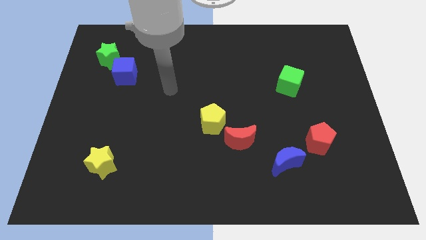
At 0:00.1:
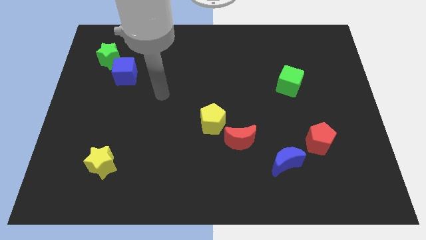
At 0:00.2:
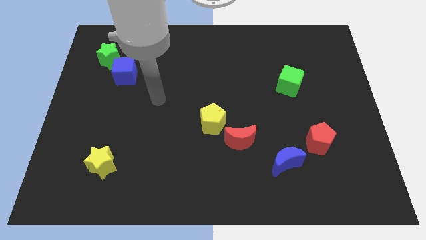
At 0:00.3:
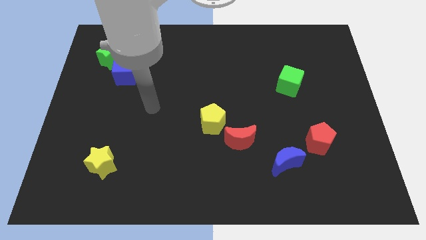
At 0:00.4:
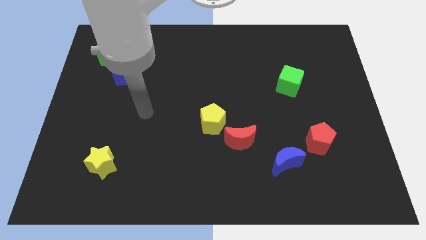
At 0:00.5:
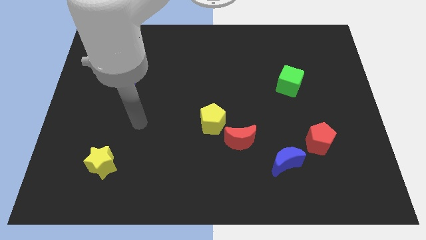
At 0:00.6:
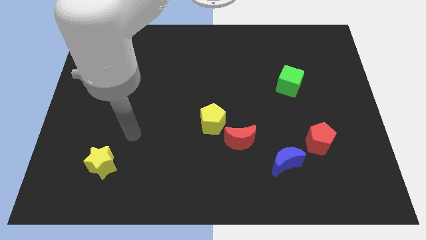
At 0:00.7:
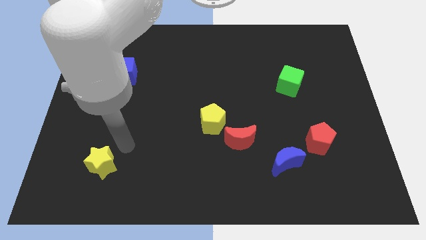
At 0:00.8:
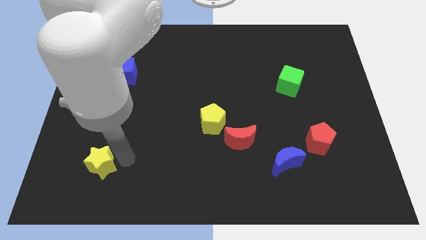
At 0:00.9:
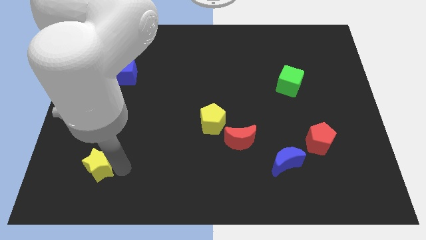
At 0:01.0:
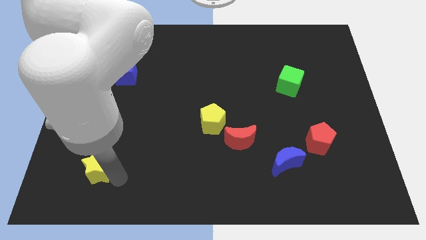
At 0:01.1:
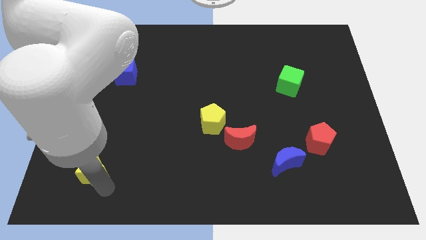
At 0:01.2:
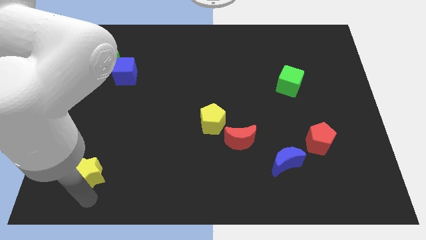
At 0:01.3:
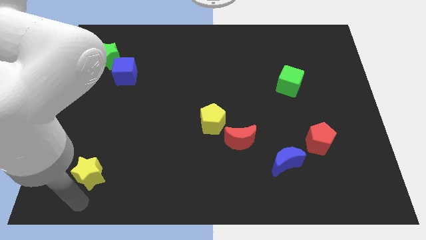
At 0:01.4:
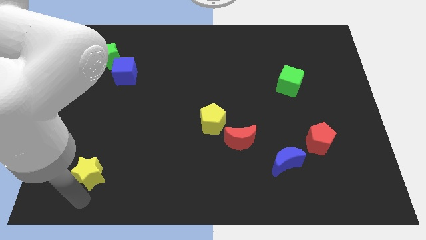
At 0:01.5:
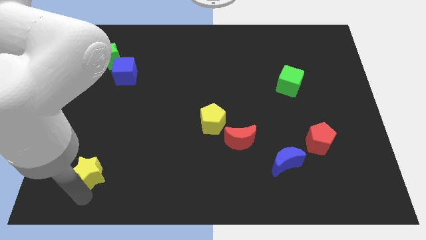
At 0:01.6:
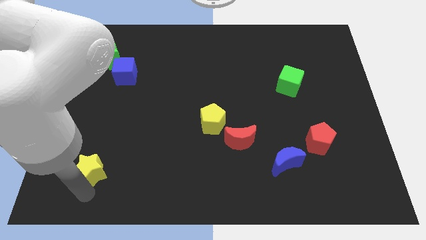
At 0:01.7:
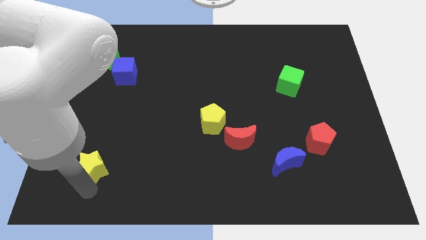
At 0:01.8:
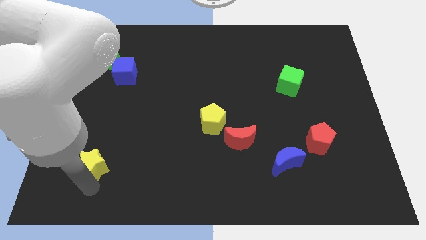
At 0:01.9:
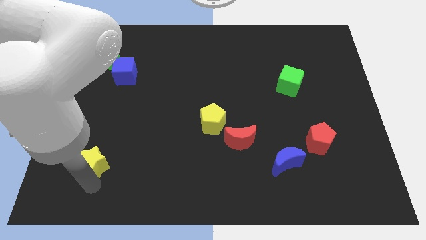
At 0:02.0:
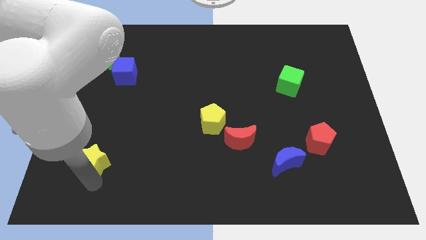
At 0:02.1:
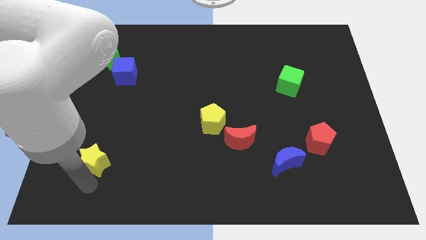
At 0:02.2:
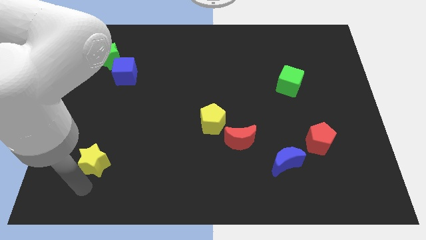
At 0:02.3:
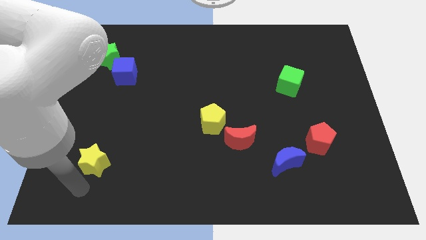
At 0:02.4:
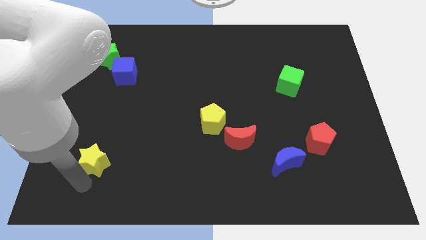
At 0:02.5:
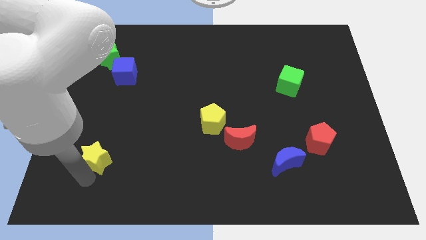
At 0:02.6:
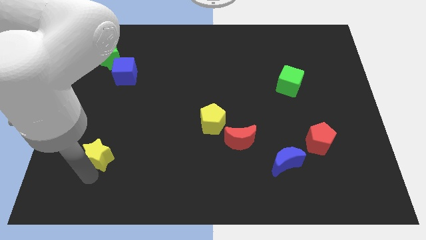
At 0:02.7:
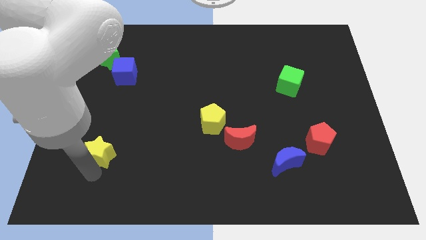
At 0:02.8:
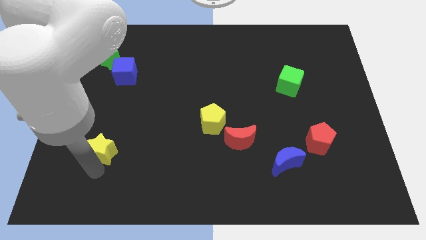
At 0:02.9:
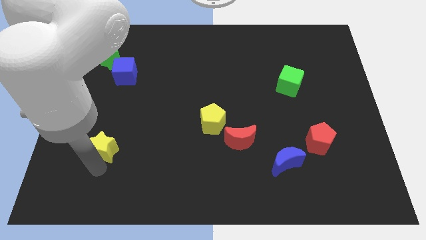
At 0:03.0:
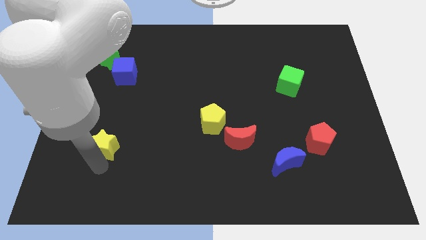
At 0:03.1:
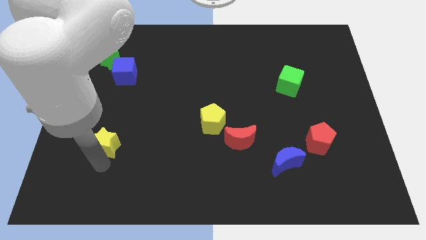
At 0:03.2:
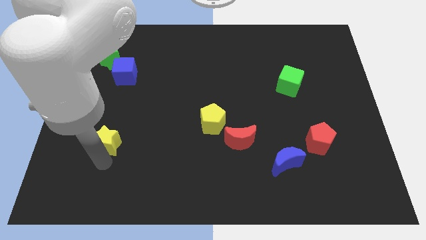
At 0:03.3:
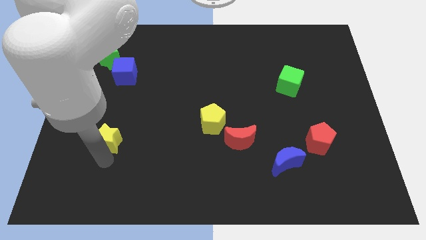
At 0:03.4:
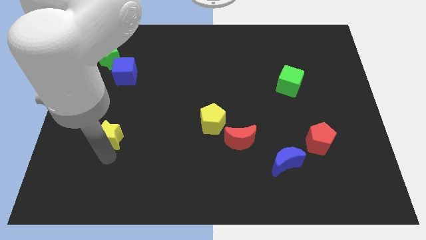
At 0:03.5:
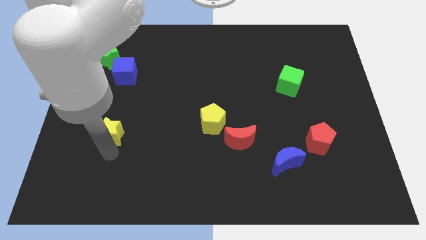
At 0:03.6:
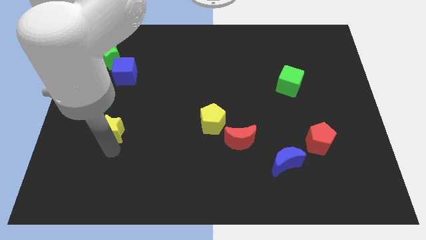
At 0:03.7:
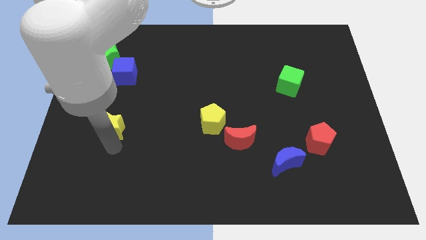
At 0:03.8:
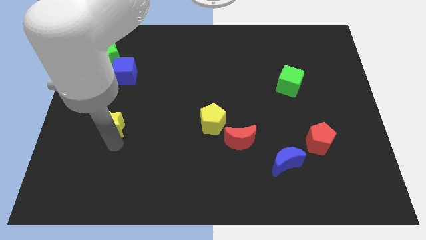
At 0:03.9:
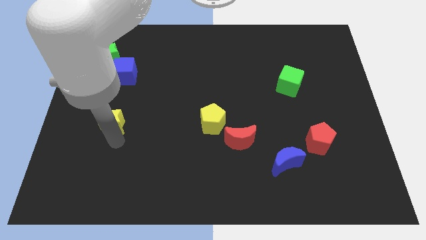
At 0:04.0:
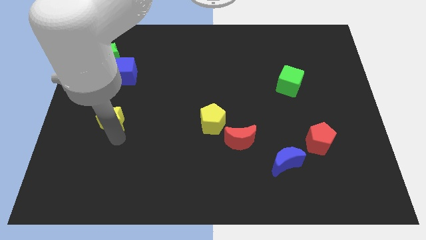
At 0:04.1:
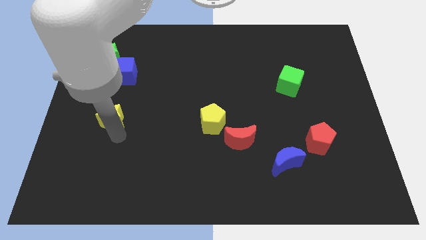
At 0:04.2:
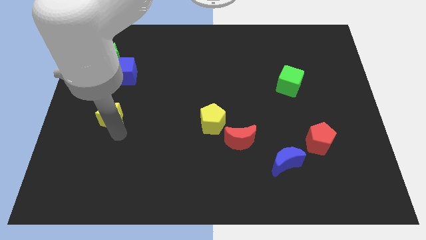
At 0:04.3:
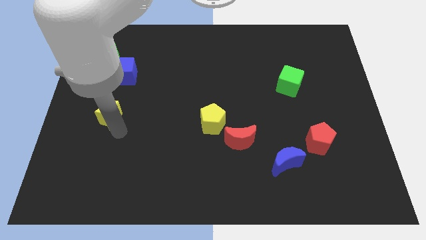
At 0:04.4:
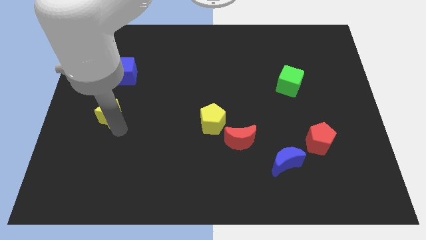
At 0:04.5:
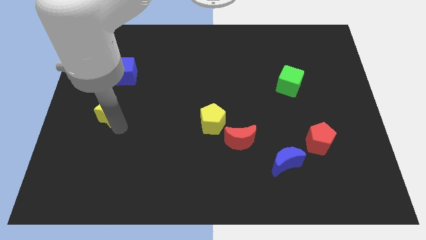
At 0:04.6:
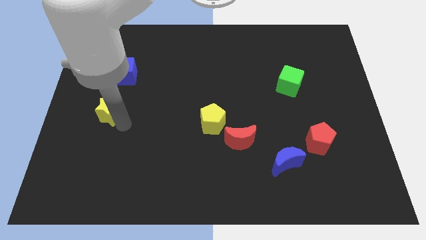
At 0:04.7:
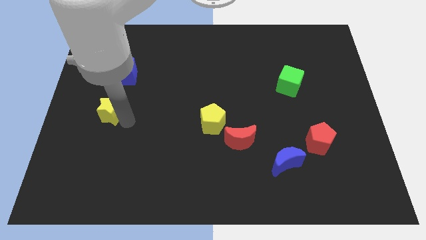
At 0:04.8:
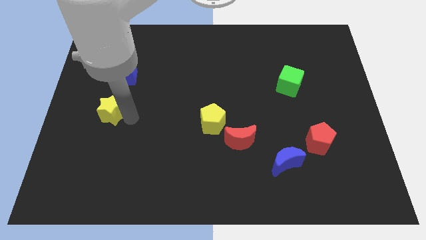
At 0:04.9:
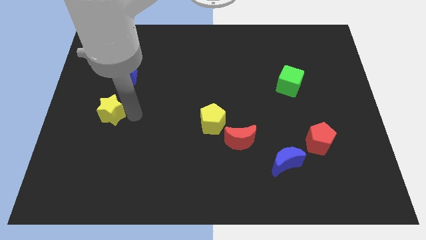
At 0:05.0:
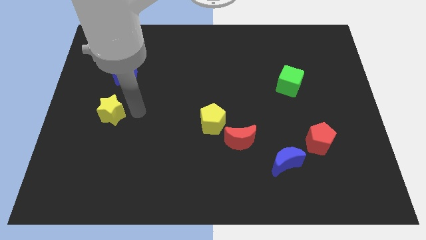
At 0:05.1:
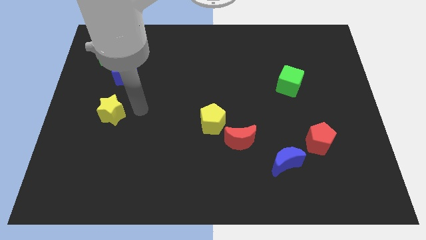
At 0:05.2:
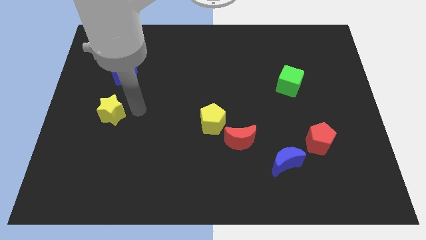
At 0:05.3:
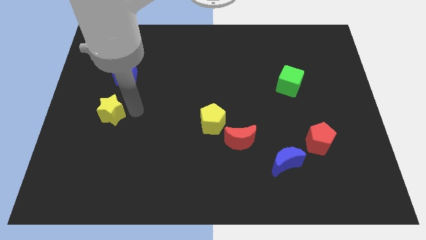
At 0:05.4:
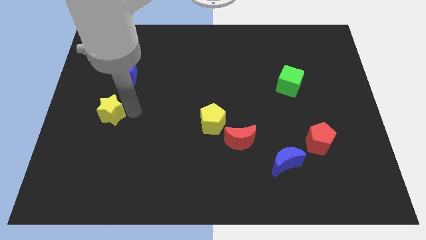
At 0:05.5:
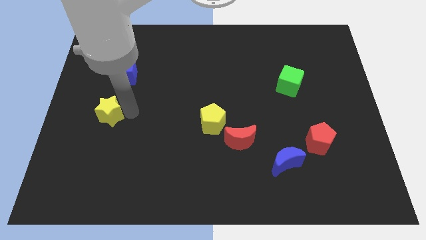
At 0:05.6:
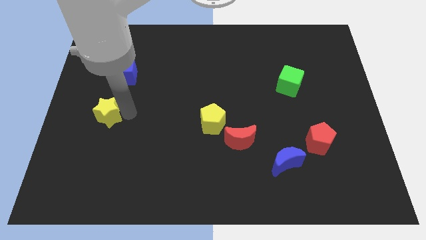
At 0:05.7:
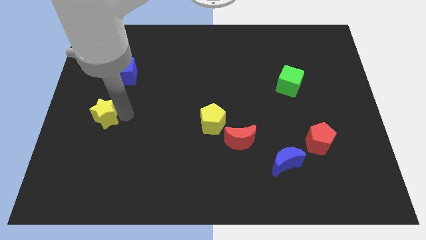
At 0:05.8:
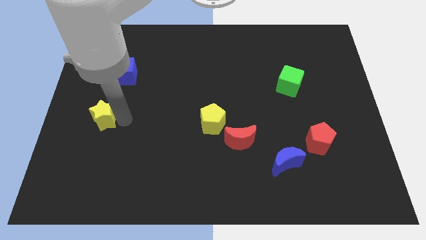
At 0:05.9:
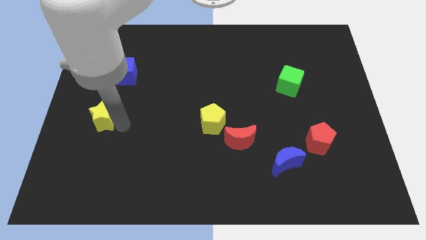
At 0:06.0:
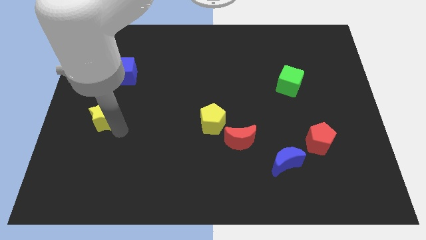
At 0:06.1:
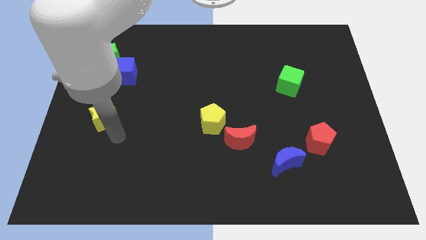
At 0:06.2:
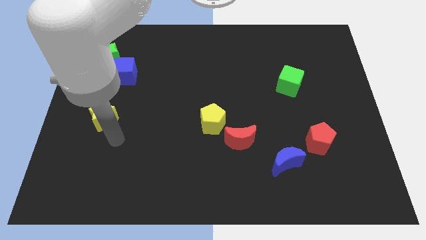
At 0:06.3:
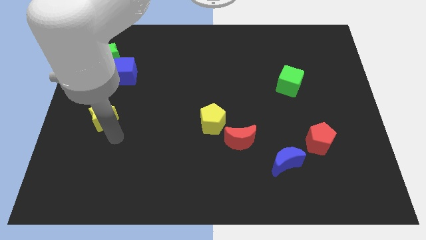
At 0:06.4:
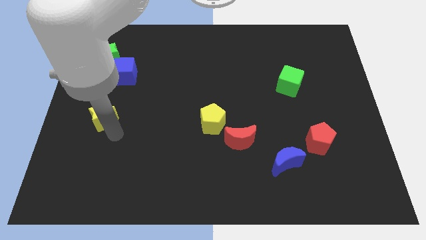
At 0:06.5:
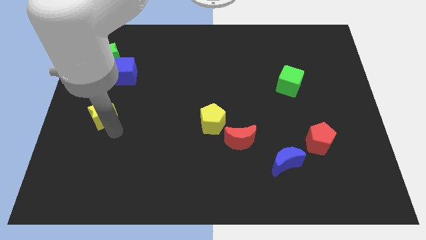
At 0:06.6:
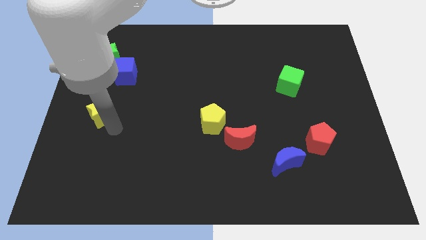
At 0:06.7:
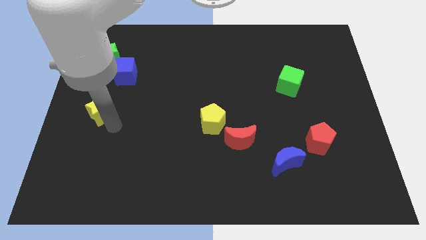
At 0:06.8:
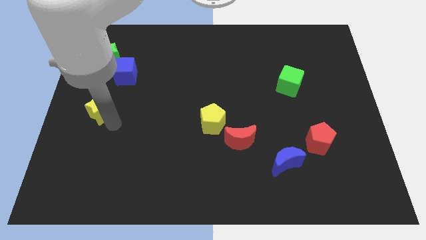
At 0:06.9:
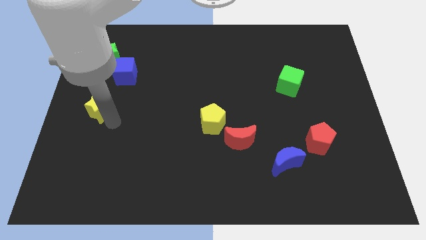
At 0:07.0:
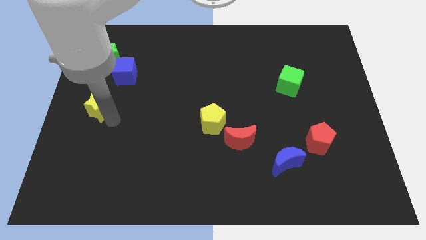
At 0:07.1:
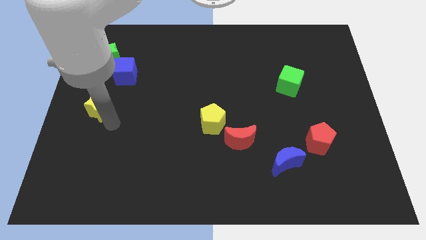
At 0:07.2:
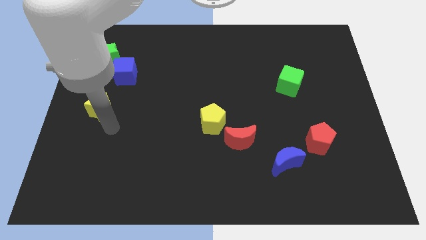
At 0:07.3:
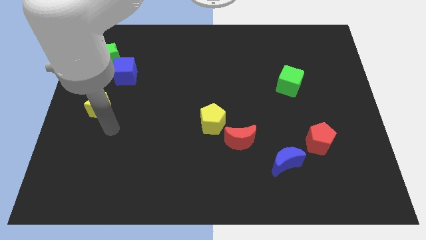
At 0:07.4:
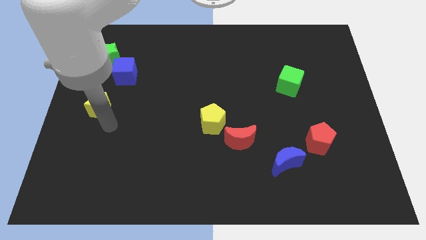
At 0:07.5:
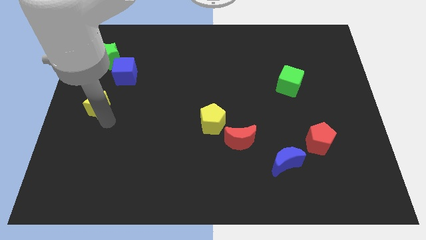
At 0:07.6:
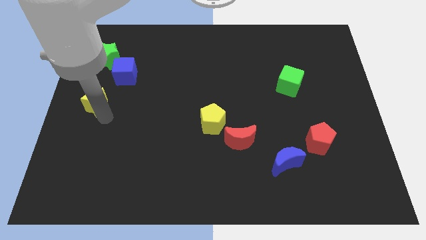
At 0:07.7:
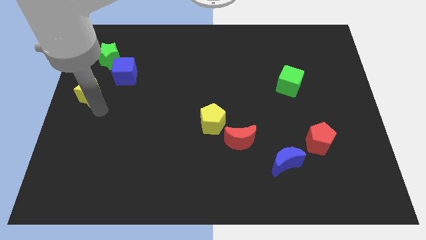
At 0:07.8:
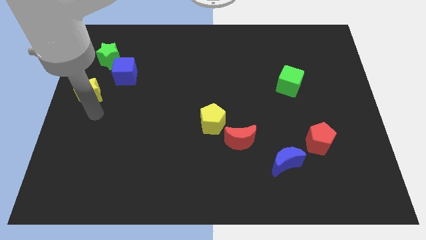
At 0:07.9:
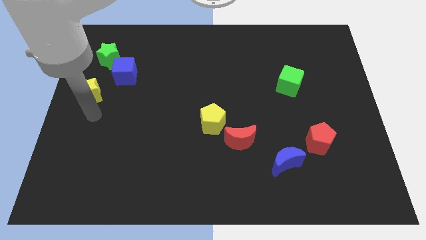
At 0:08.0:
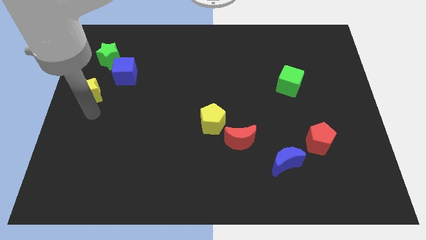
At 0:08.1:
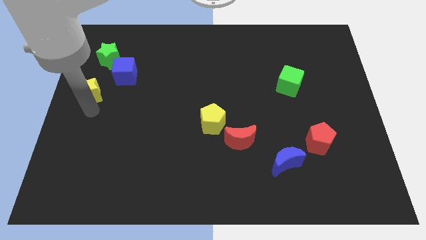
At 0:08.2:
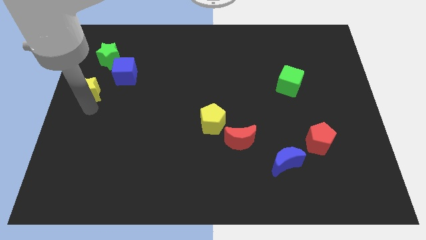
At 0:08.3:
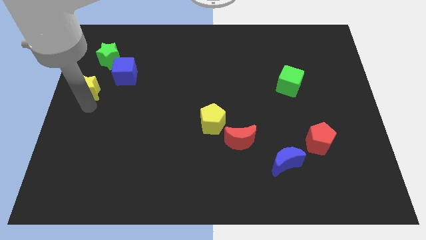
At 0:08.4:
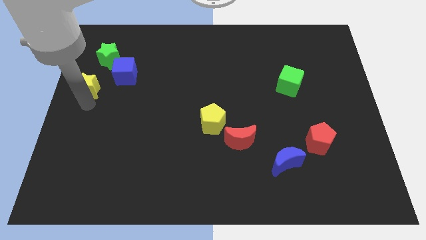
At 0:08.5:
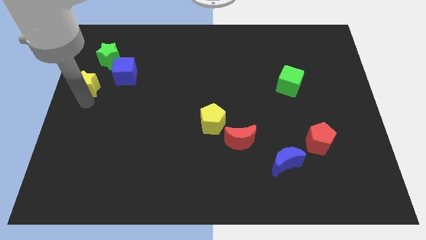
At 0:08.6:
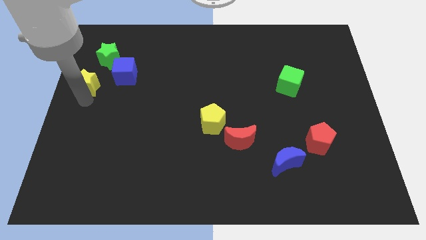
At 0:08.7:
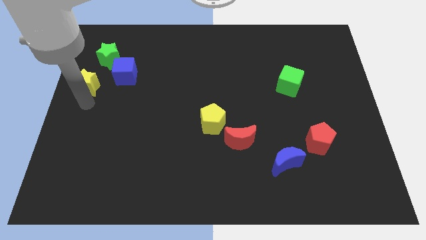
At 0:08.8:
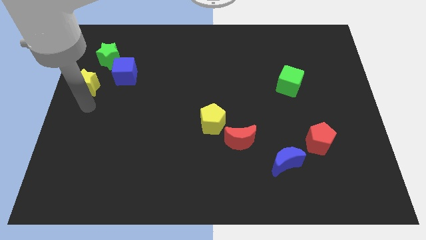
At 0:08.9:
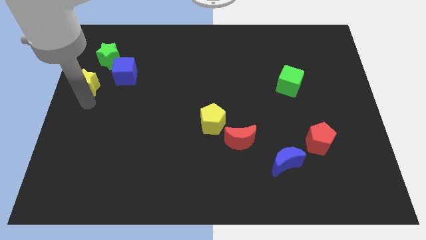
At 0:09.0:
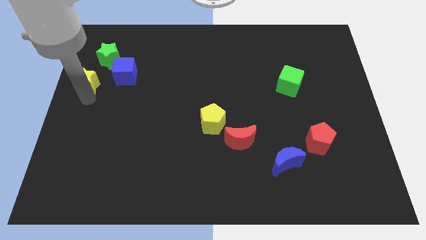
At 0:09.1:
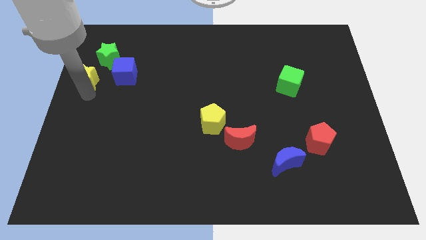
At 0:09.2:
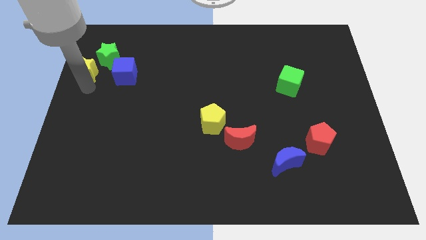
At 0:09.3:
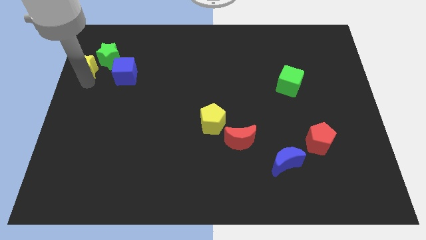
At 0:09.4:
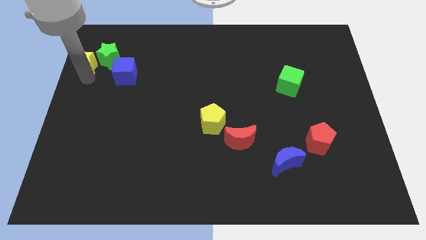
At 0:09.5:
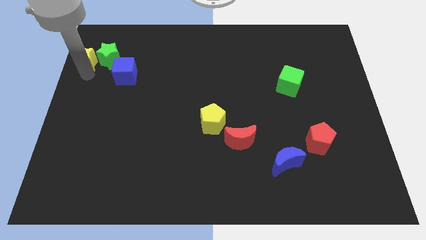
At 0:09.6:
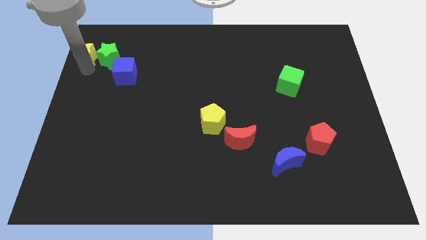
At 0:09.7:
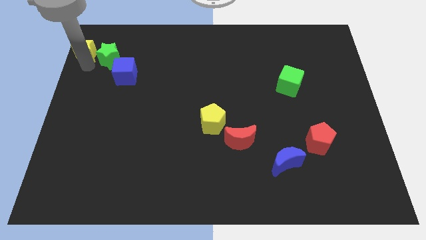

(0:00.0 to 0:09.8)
put the yellow star to the top left
